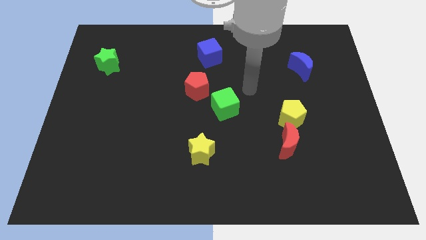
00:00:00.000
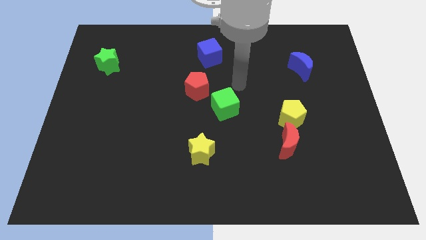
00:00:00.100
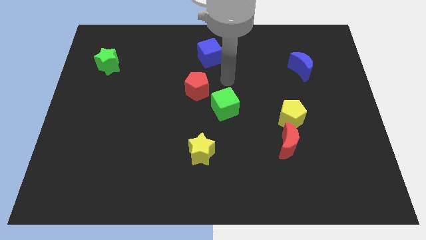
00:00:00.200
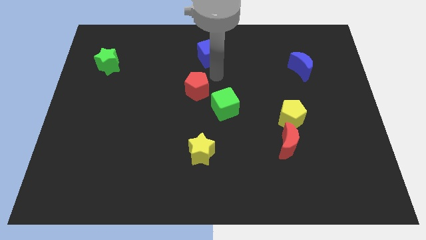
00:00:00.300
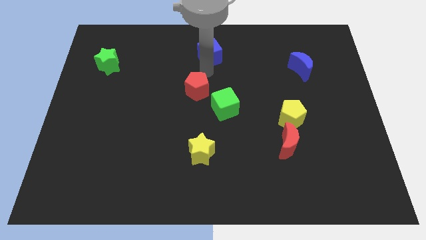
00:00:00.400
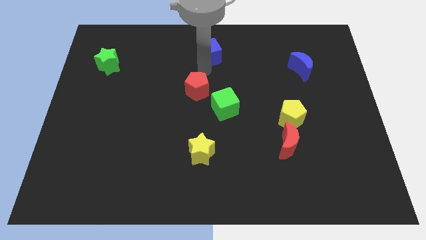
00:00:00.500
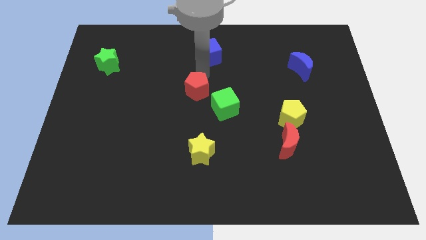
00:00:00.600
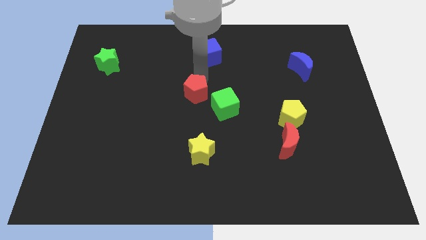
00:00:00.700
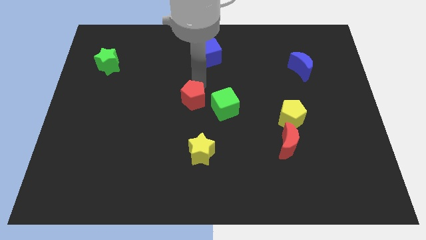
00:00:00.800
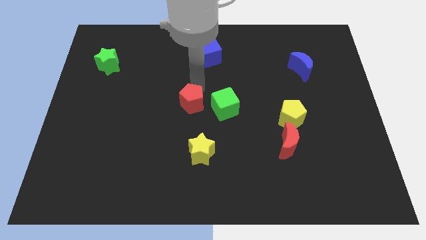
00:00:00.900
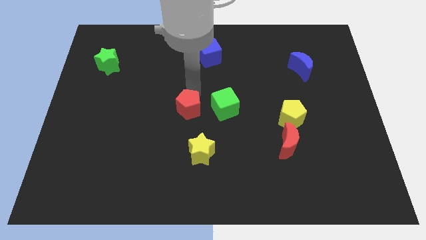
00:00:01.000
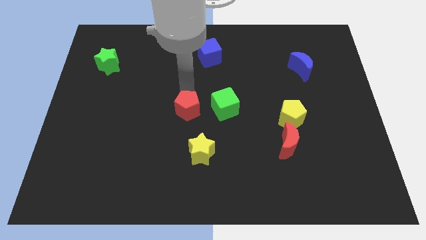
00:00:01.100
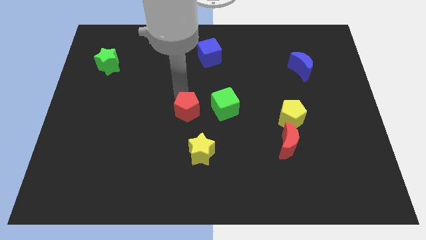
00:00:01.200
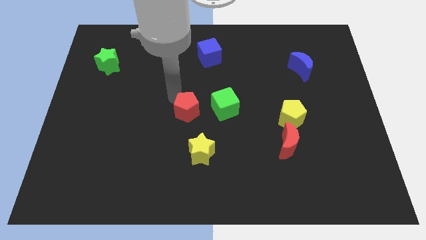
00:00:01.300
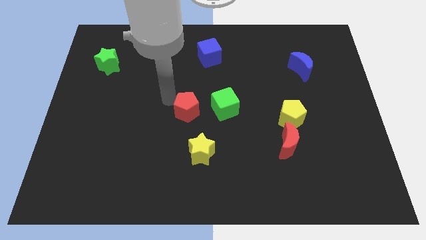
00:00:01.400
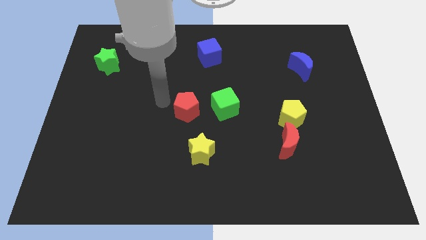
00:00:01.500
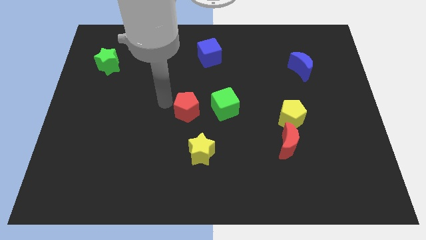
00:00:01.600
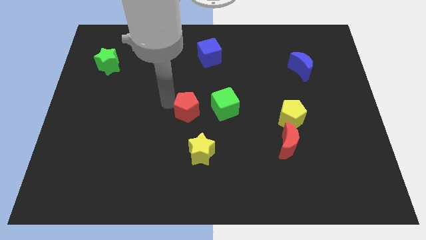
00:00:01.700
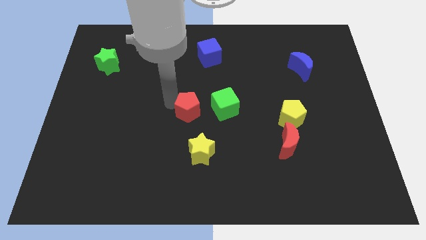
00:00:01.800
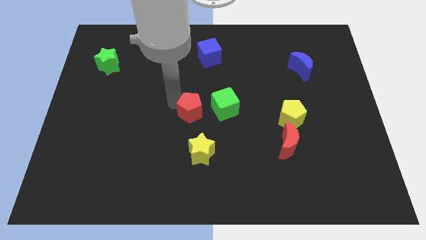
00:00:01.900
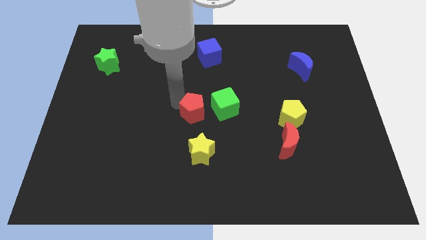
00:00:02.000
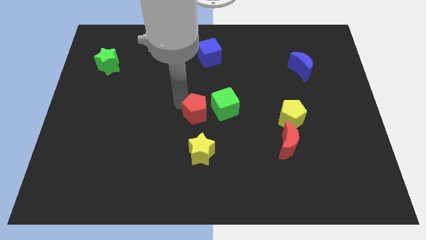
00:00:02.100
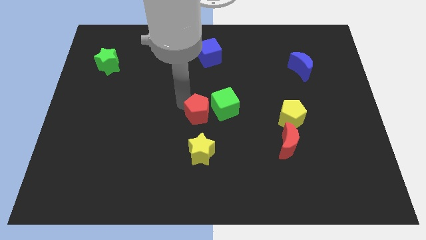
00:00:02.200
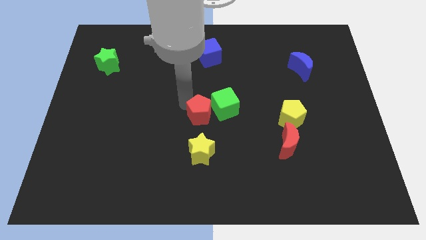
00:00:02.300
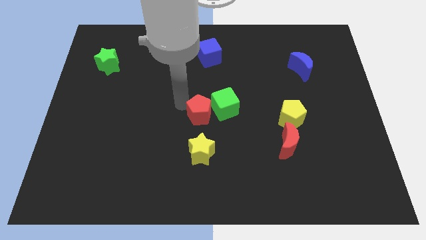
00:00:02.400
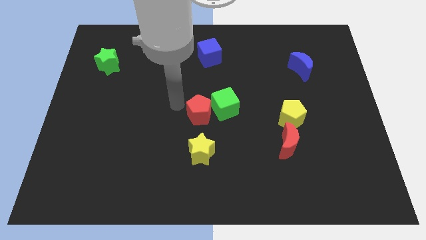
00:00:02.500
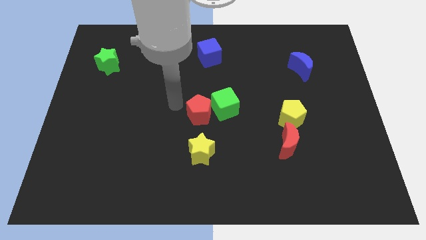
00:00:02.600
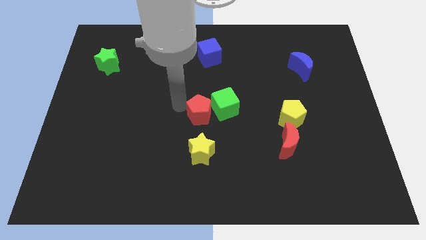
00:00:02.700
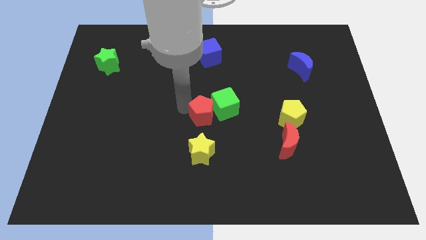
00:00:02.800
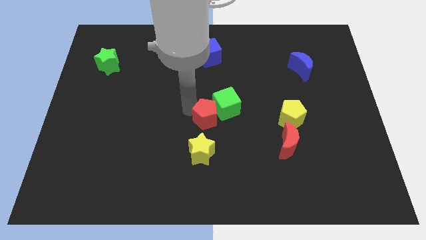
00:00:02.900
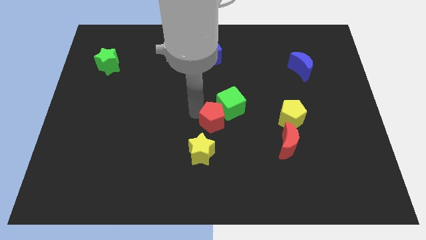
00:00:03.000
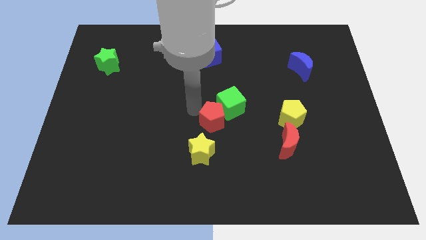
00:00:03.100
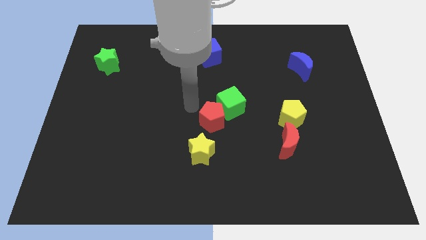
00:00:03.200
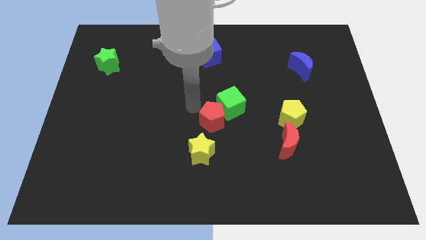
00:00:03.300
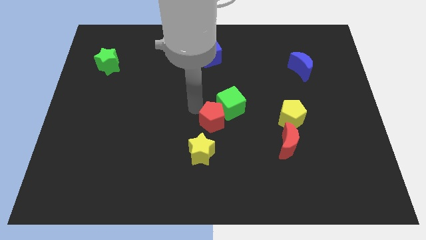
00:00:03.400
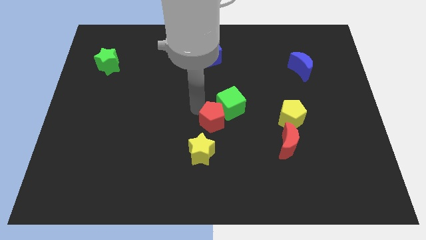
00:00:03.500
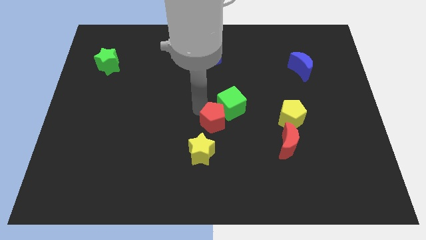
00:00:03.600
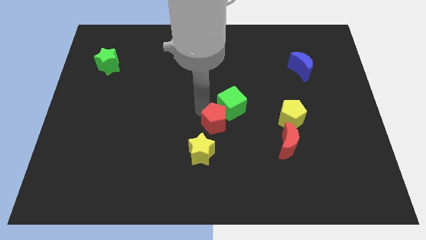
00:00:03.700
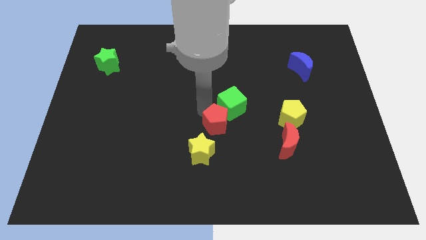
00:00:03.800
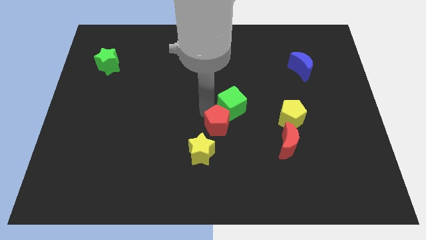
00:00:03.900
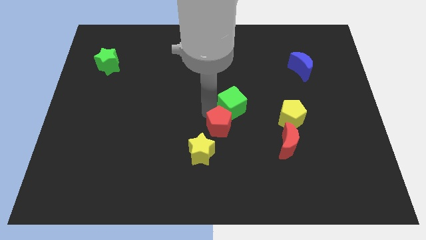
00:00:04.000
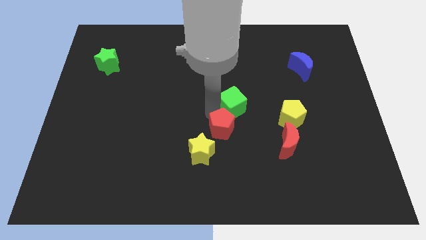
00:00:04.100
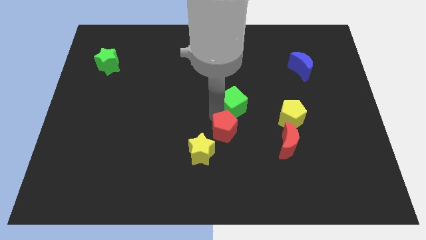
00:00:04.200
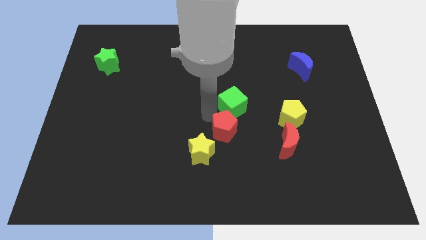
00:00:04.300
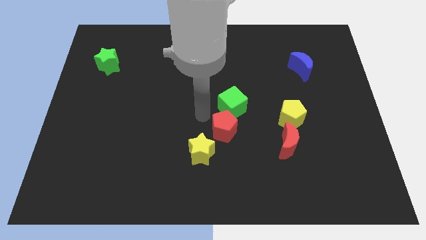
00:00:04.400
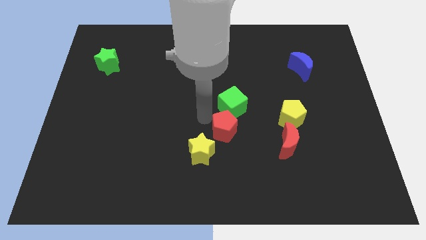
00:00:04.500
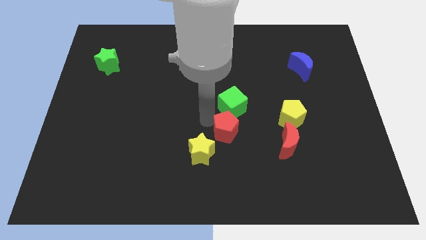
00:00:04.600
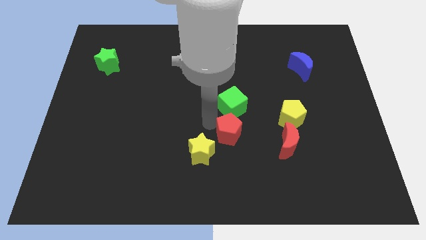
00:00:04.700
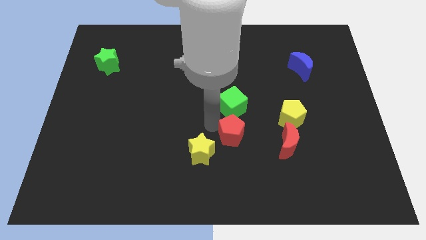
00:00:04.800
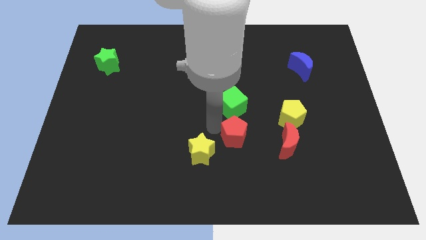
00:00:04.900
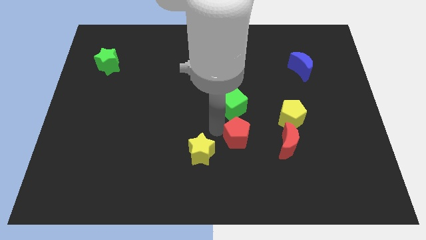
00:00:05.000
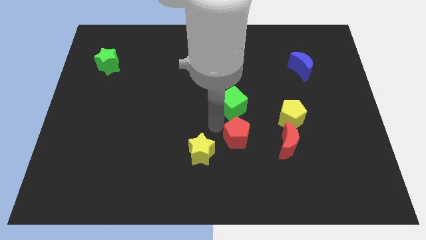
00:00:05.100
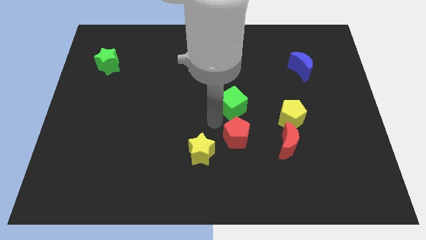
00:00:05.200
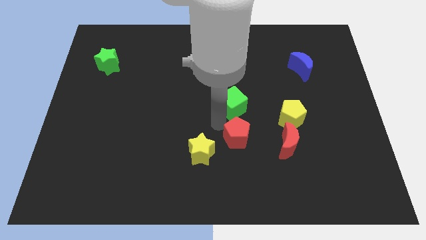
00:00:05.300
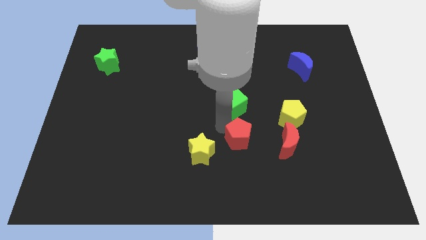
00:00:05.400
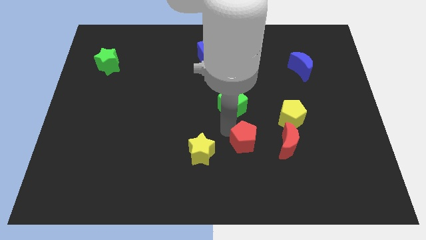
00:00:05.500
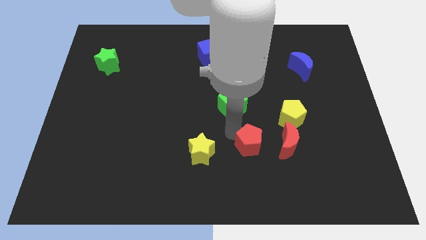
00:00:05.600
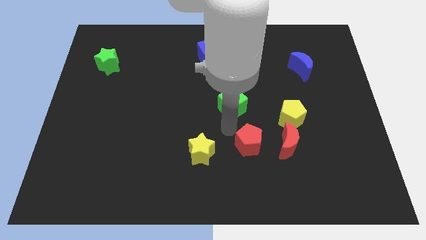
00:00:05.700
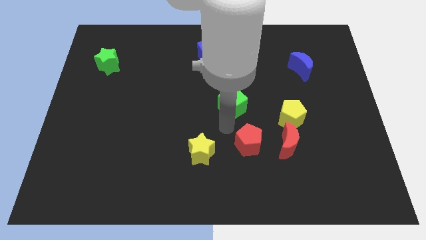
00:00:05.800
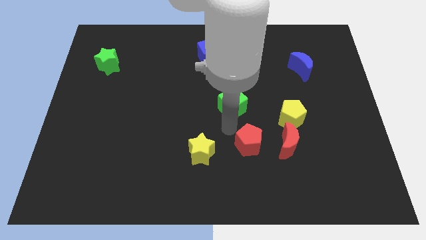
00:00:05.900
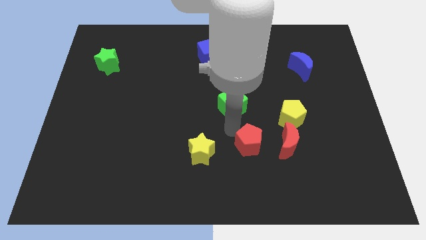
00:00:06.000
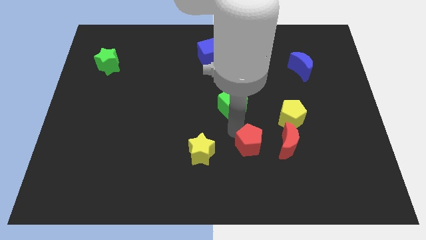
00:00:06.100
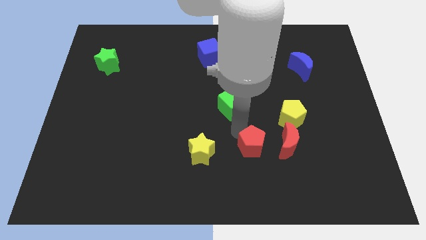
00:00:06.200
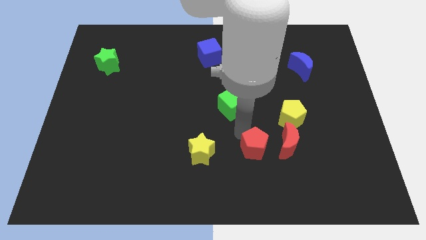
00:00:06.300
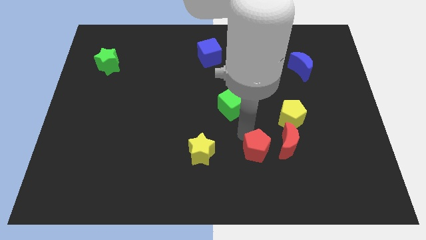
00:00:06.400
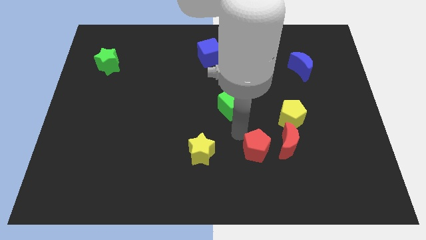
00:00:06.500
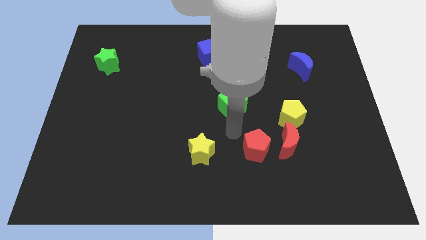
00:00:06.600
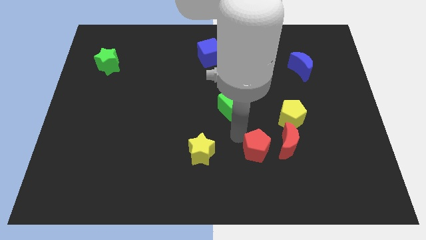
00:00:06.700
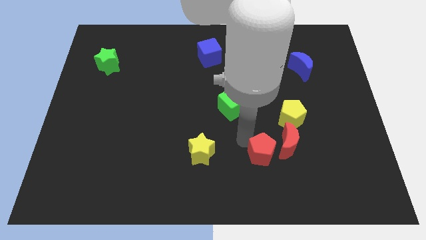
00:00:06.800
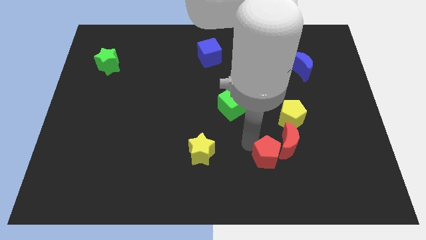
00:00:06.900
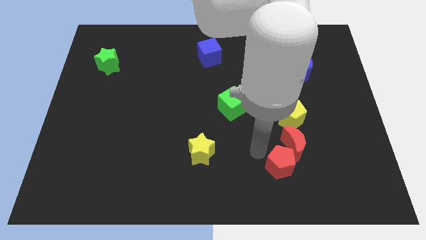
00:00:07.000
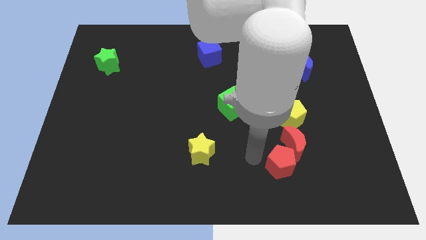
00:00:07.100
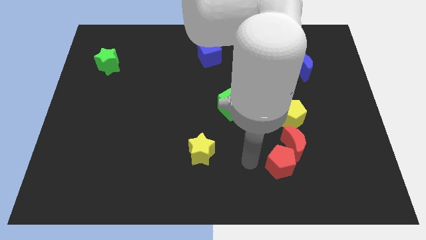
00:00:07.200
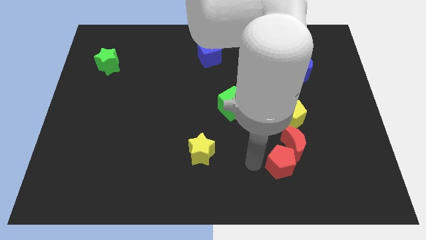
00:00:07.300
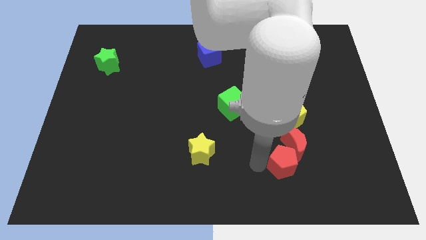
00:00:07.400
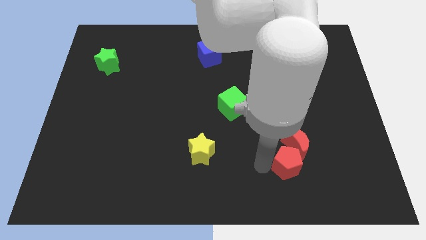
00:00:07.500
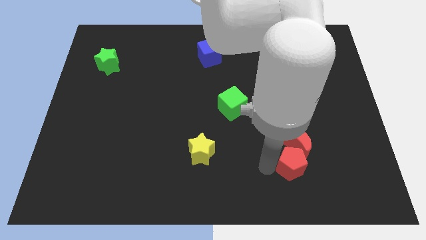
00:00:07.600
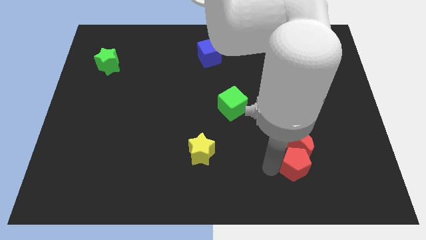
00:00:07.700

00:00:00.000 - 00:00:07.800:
put the red pentagon diagonally down and to the right of the red moon
